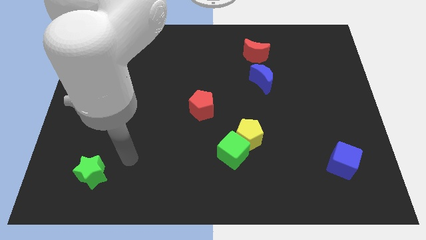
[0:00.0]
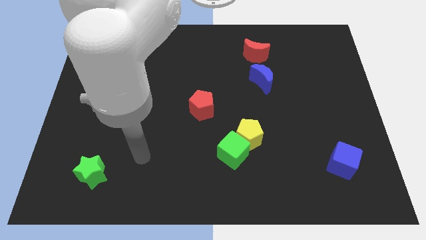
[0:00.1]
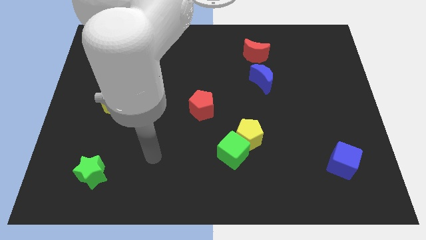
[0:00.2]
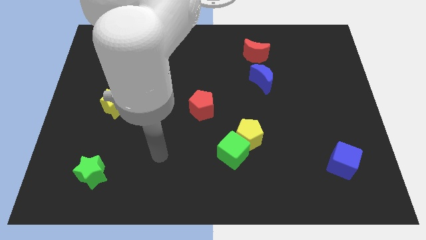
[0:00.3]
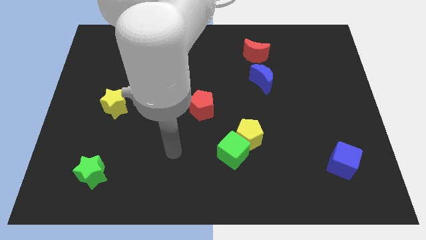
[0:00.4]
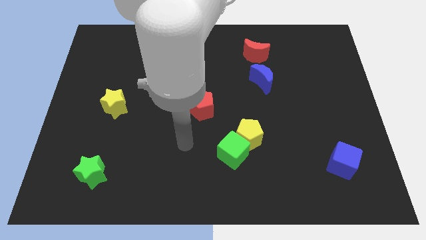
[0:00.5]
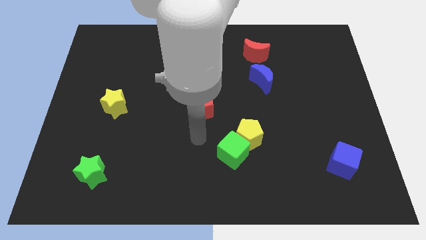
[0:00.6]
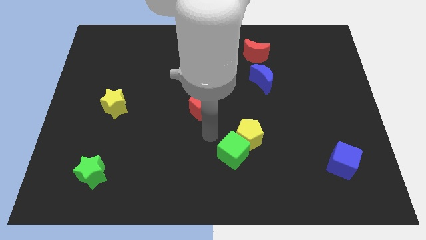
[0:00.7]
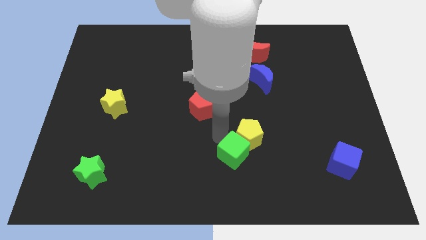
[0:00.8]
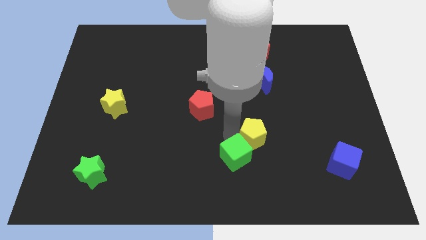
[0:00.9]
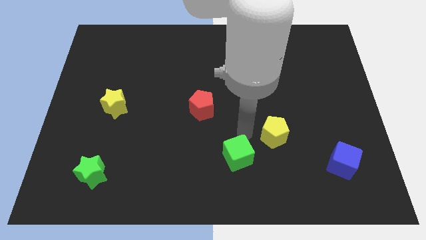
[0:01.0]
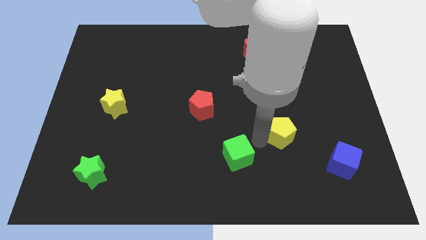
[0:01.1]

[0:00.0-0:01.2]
pull the green cube apart from the yellow pentagon

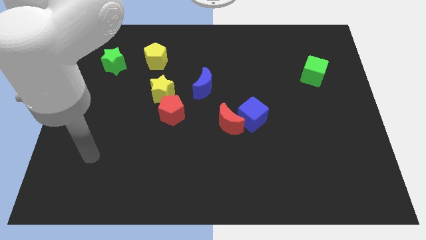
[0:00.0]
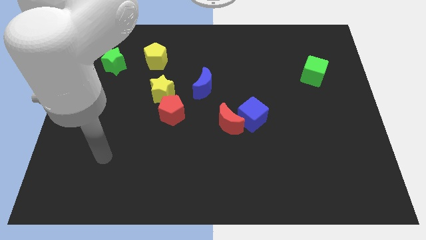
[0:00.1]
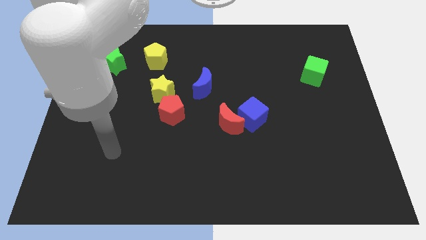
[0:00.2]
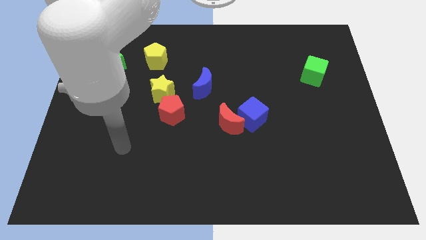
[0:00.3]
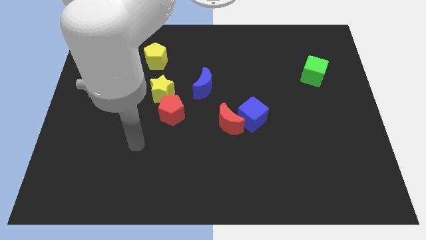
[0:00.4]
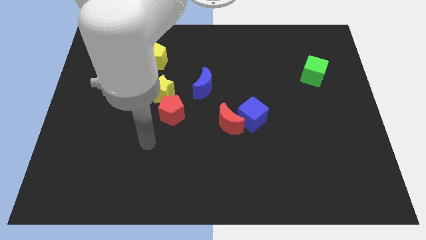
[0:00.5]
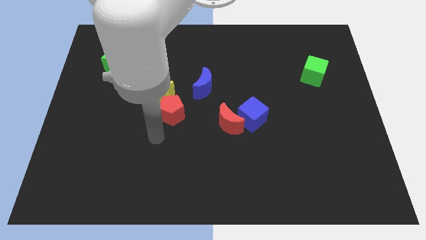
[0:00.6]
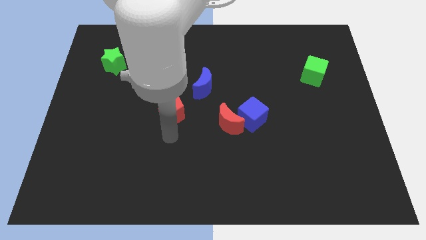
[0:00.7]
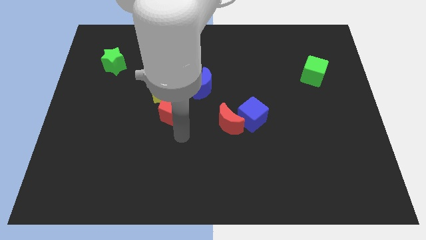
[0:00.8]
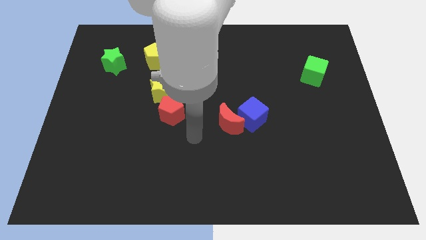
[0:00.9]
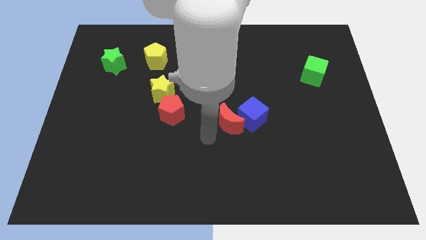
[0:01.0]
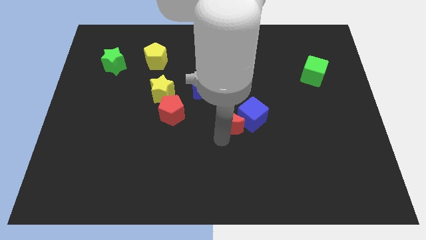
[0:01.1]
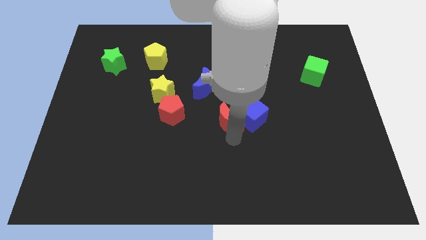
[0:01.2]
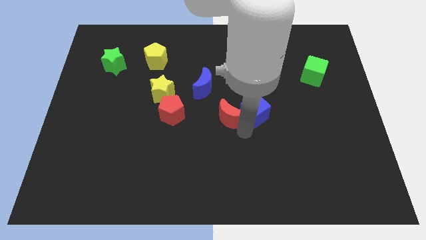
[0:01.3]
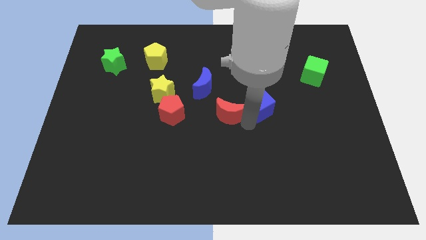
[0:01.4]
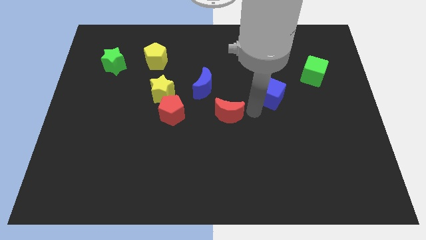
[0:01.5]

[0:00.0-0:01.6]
move the red moon away from the blue cube

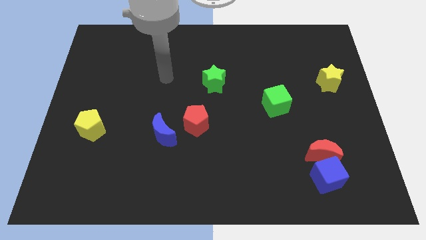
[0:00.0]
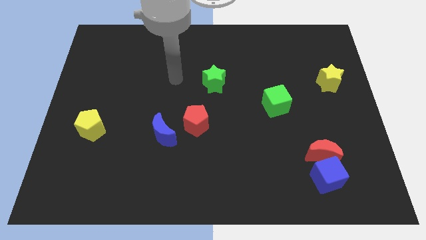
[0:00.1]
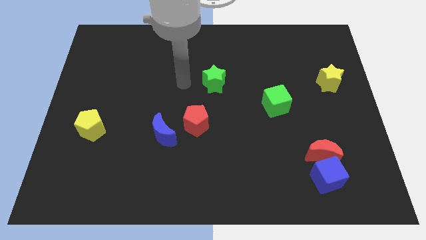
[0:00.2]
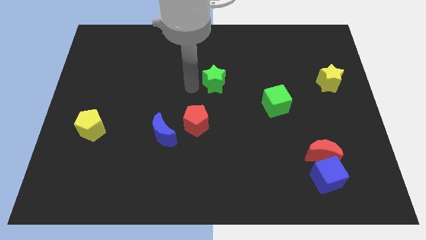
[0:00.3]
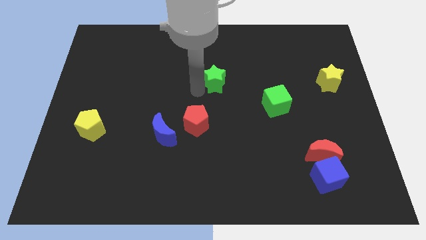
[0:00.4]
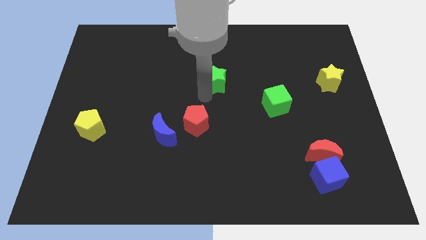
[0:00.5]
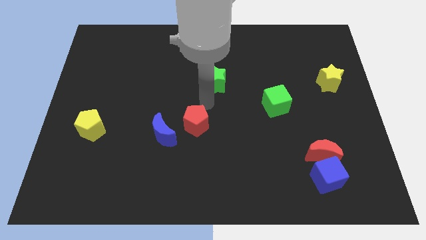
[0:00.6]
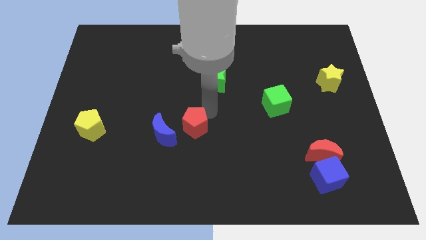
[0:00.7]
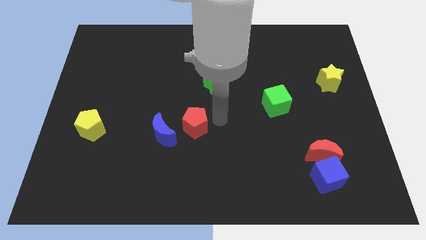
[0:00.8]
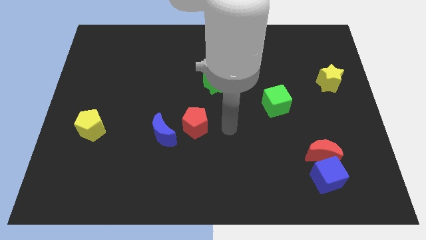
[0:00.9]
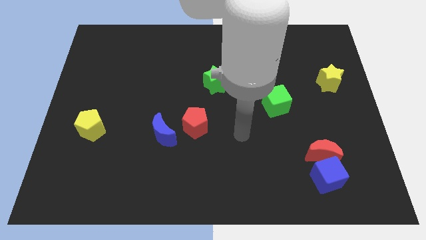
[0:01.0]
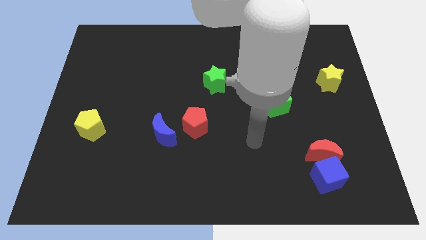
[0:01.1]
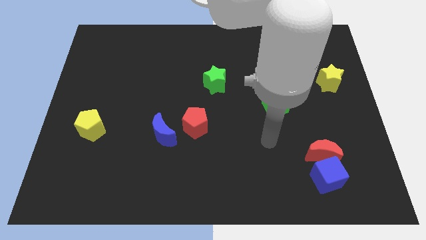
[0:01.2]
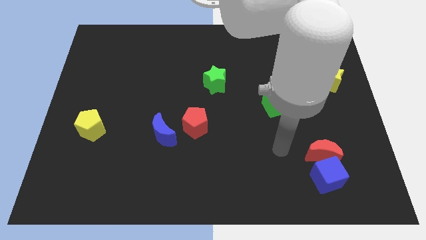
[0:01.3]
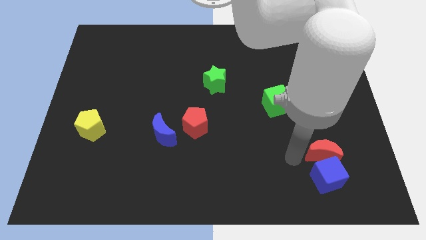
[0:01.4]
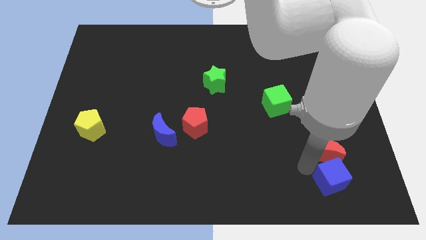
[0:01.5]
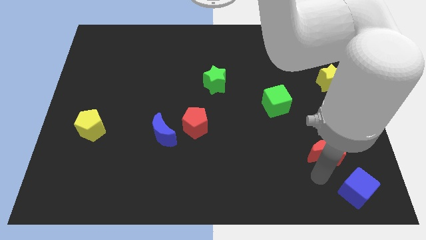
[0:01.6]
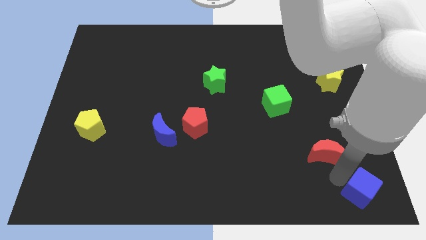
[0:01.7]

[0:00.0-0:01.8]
separate the red moon from the blue cube

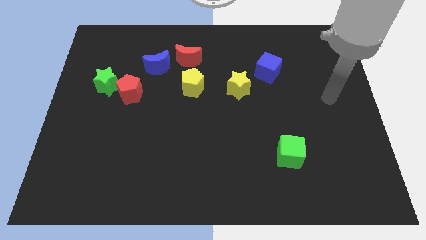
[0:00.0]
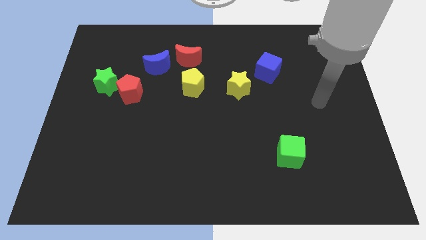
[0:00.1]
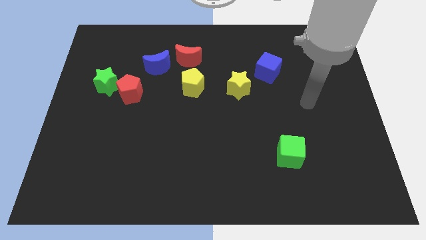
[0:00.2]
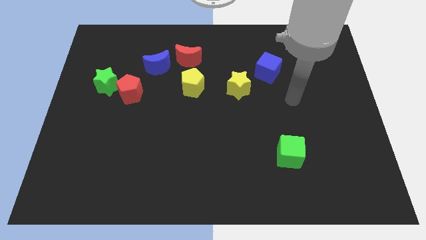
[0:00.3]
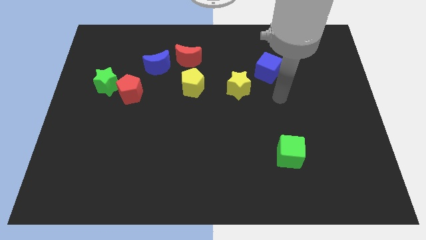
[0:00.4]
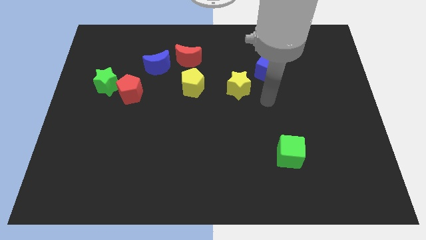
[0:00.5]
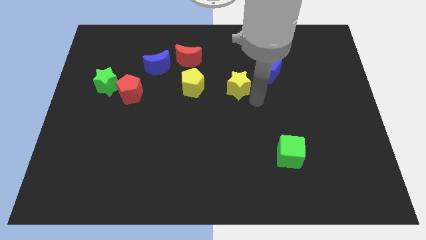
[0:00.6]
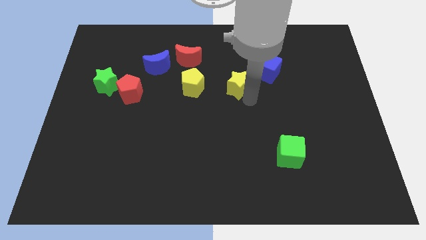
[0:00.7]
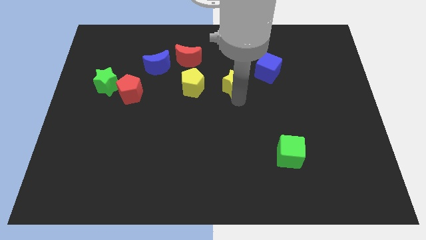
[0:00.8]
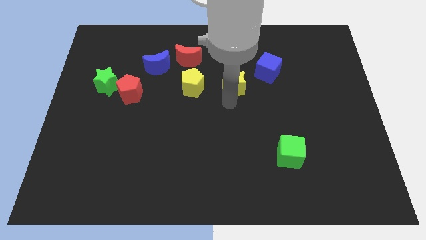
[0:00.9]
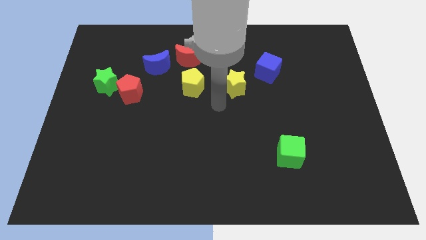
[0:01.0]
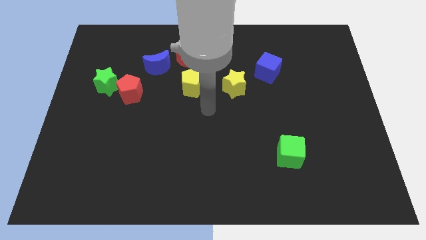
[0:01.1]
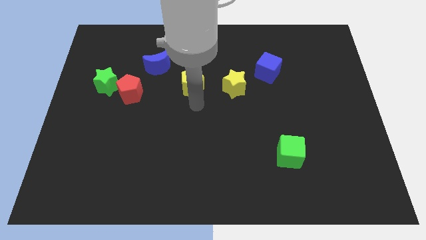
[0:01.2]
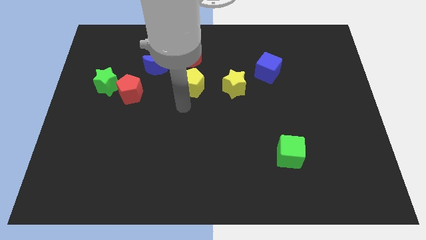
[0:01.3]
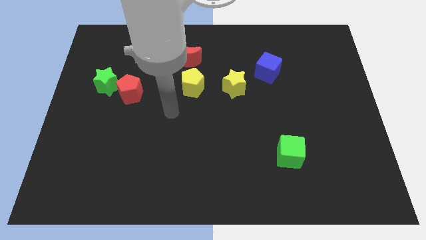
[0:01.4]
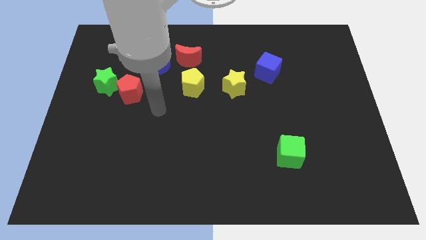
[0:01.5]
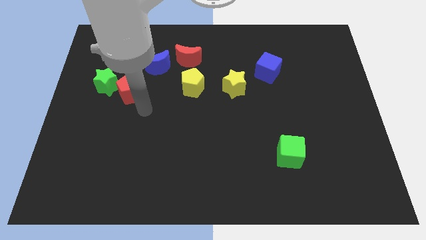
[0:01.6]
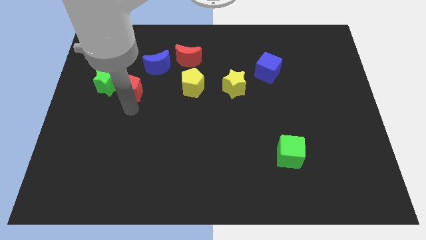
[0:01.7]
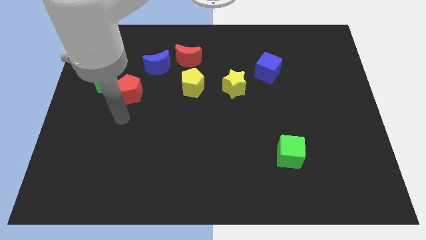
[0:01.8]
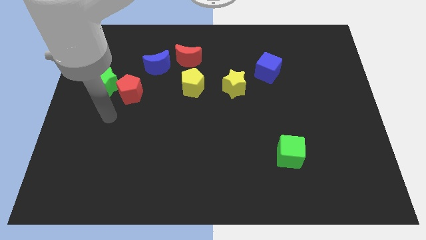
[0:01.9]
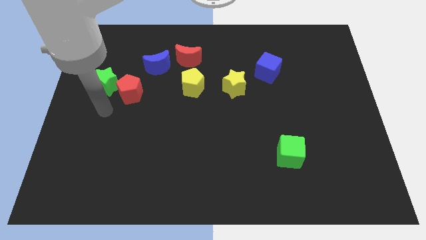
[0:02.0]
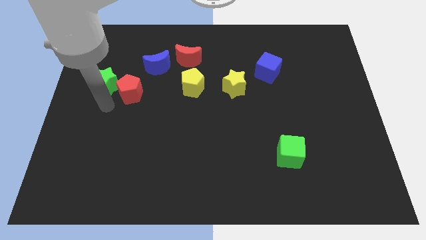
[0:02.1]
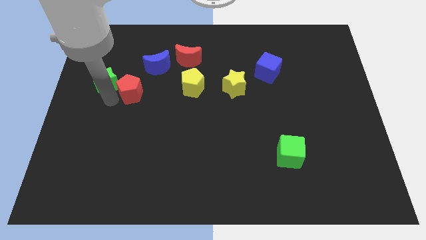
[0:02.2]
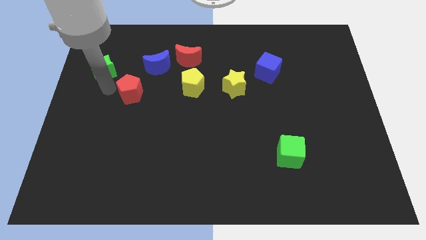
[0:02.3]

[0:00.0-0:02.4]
move the red pentagon away from the green star

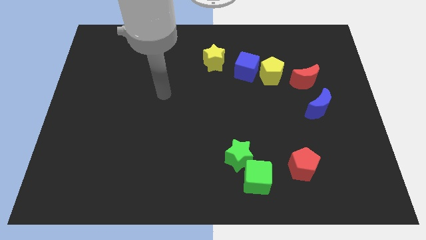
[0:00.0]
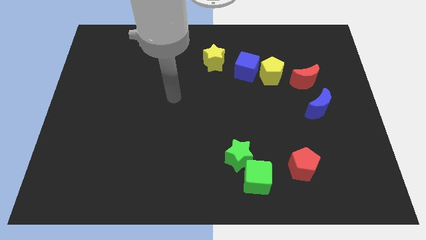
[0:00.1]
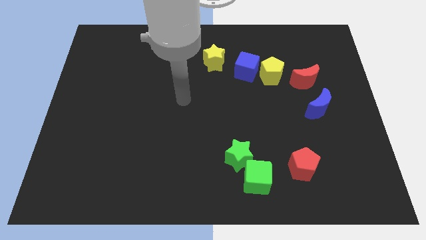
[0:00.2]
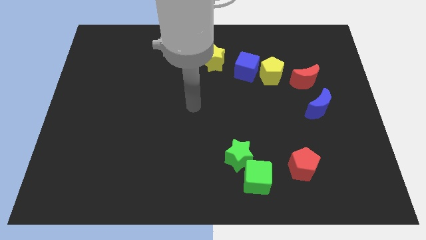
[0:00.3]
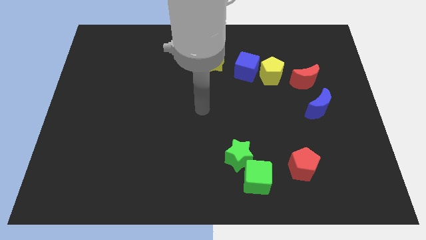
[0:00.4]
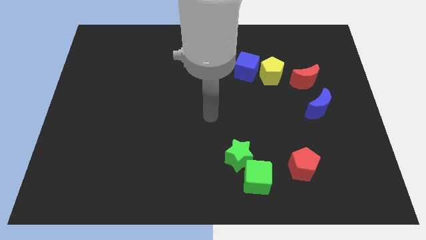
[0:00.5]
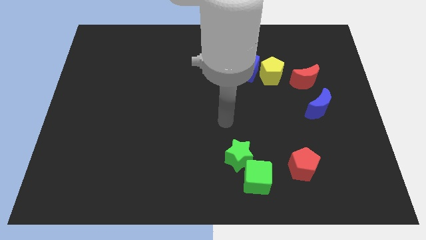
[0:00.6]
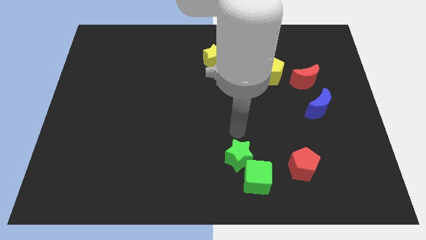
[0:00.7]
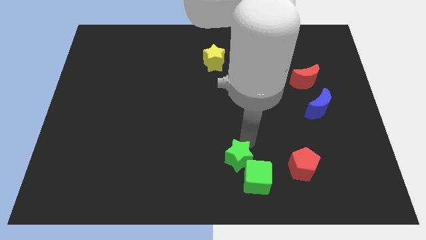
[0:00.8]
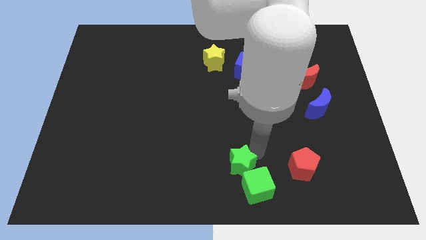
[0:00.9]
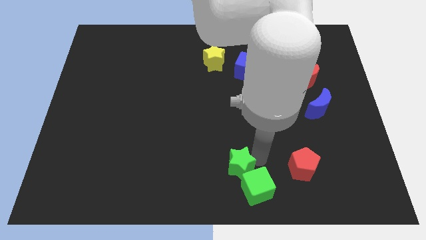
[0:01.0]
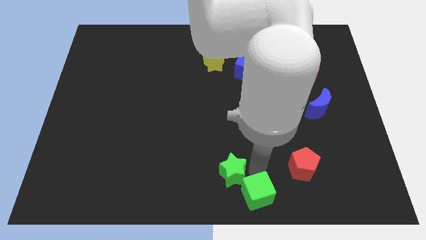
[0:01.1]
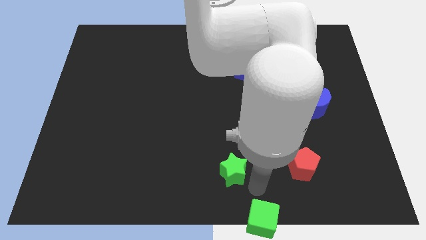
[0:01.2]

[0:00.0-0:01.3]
separate the green star from the green cube

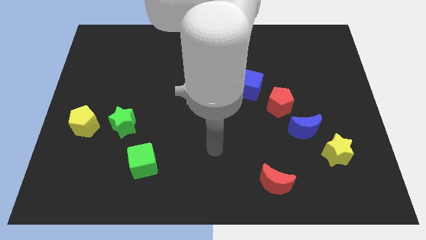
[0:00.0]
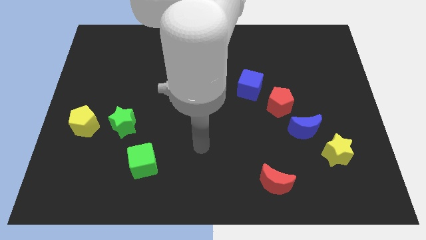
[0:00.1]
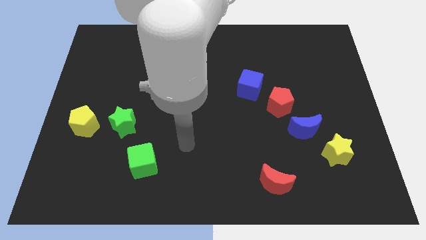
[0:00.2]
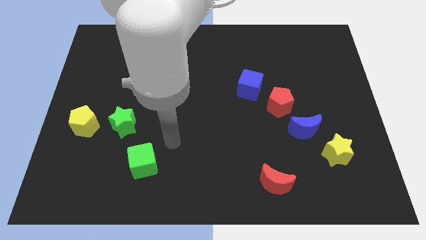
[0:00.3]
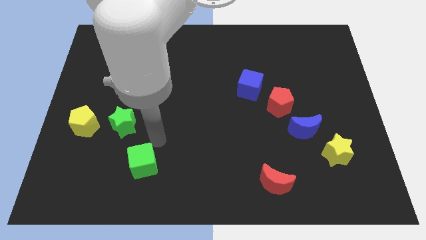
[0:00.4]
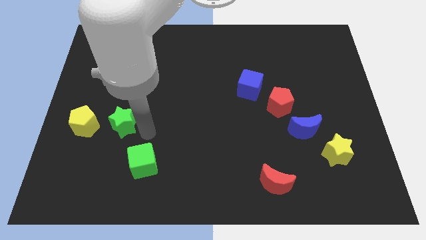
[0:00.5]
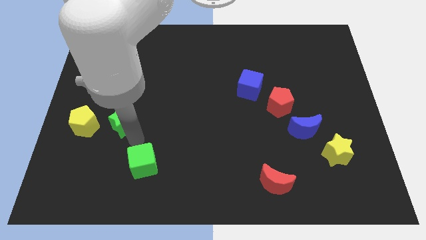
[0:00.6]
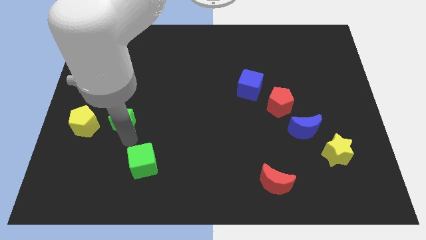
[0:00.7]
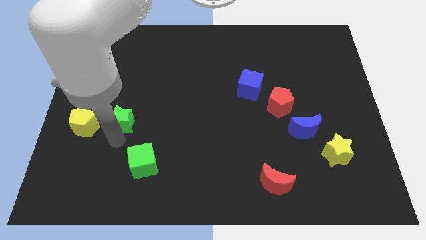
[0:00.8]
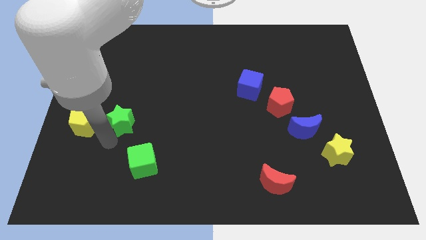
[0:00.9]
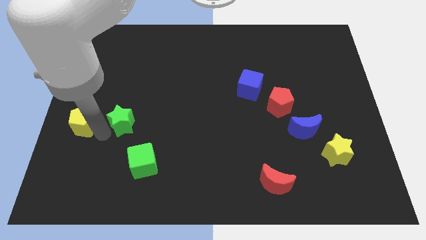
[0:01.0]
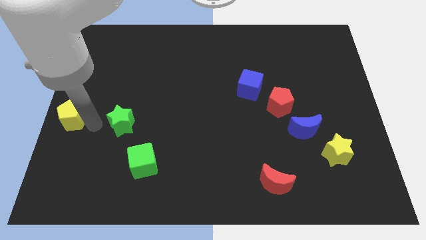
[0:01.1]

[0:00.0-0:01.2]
pull the green star apart from the yellow pentagon

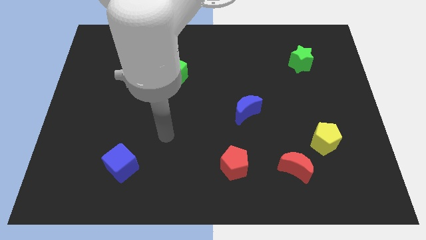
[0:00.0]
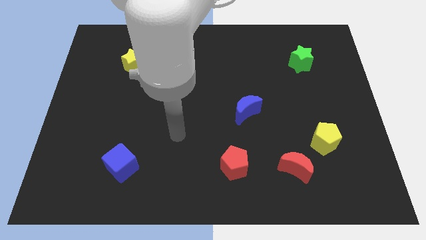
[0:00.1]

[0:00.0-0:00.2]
pull the red moon apart from the yellow pentagon
